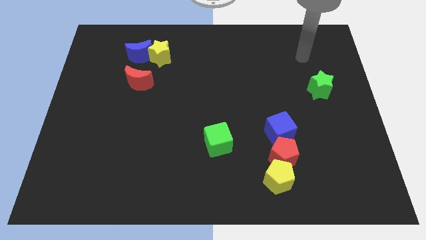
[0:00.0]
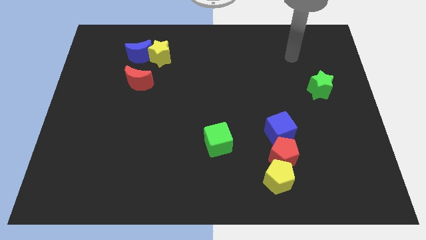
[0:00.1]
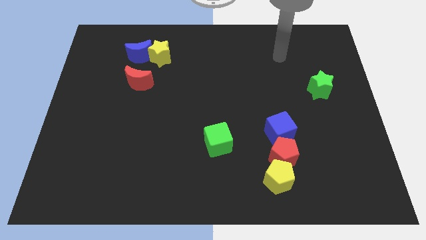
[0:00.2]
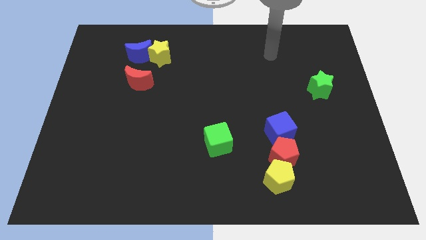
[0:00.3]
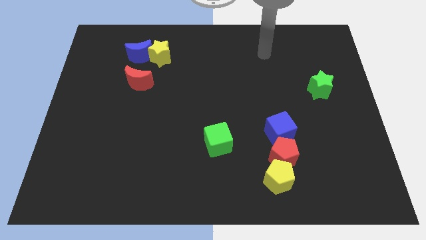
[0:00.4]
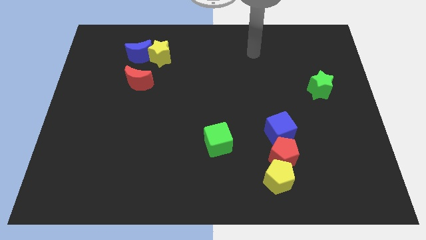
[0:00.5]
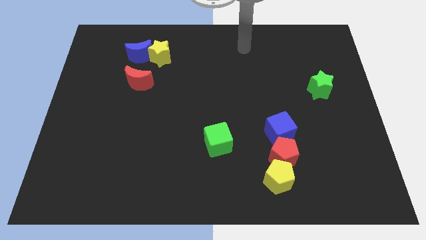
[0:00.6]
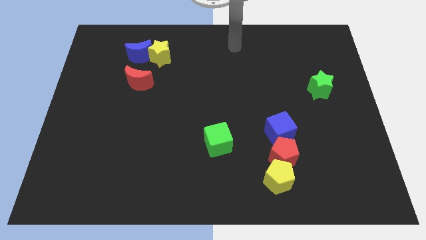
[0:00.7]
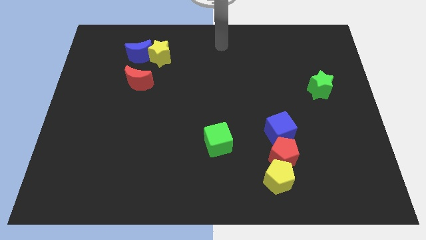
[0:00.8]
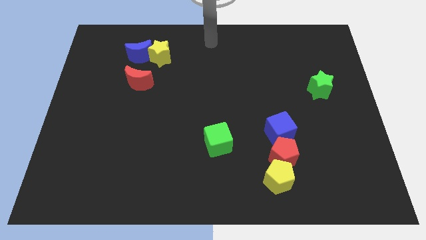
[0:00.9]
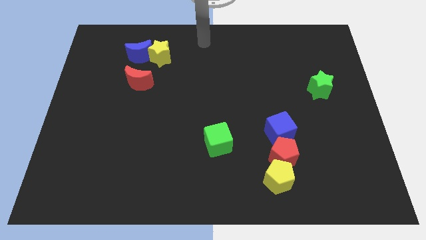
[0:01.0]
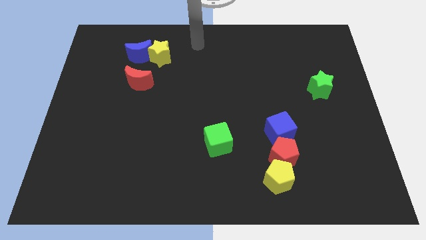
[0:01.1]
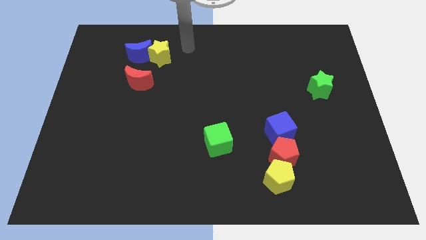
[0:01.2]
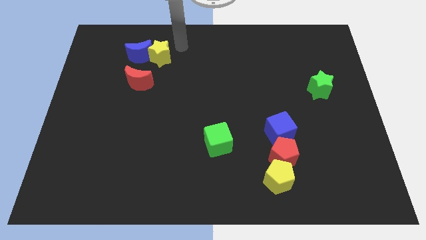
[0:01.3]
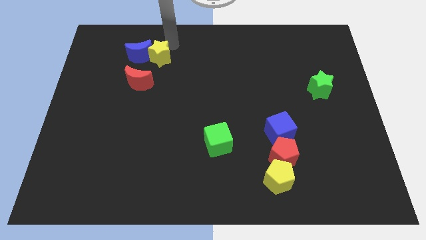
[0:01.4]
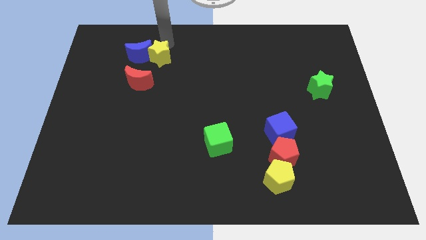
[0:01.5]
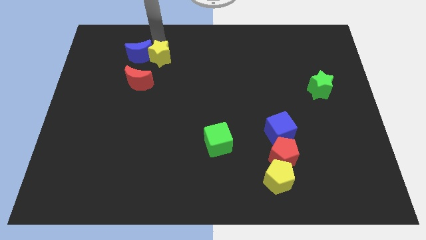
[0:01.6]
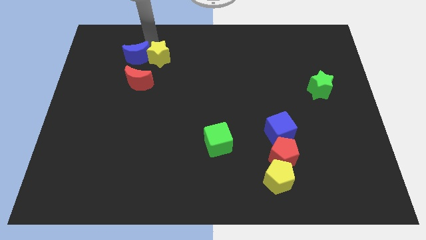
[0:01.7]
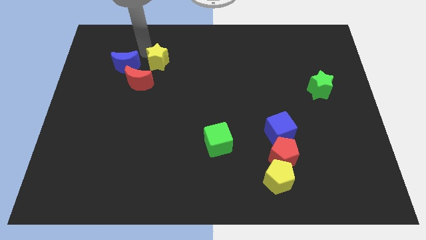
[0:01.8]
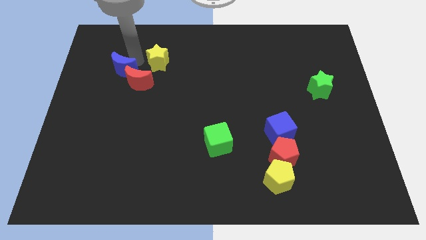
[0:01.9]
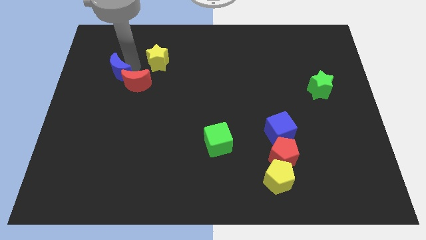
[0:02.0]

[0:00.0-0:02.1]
move the yellow star away from the blue moon

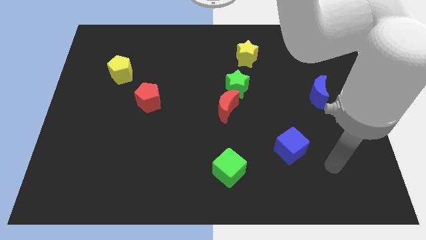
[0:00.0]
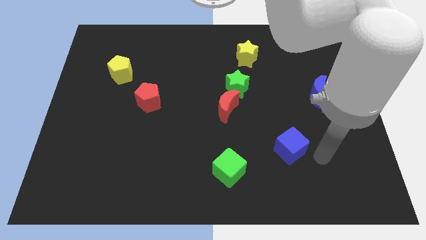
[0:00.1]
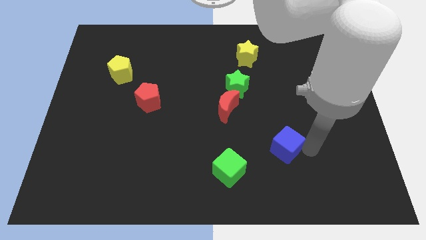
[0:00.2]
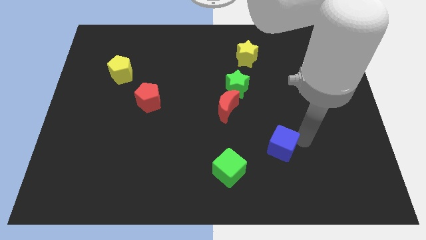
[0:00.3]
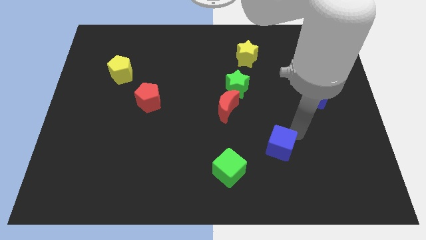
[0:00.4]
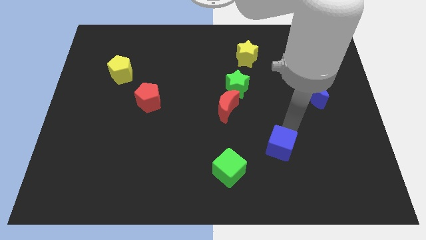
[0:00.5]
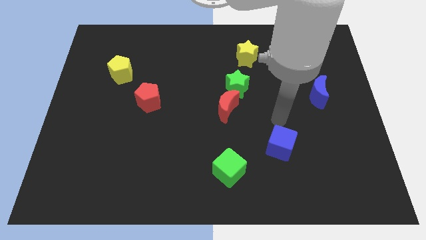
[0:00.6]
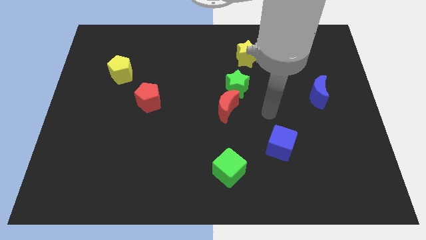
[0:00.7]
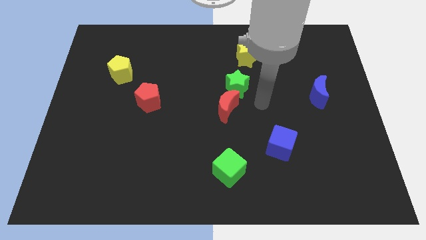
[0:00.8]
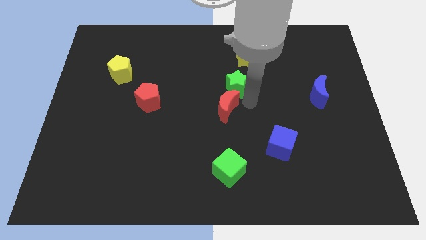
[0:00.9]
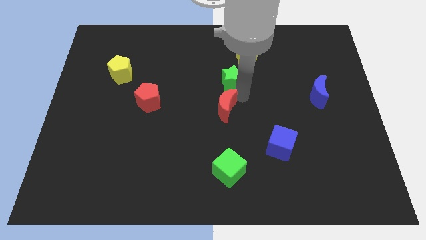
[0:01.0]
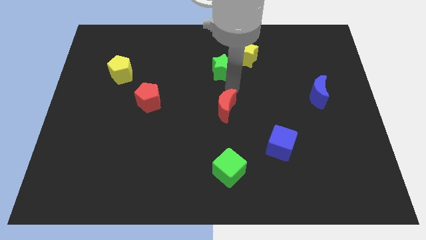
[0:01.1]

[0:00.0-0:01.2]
pull the red moon apart from the green star

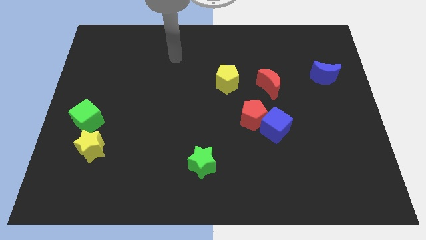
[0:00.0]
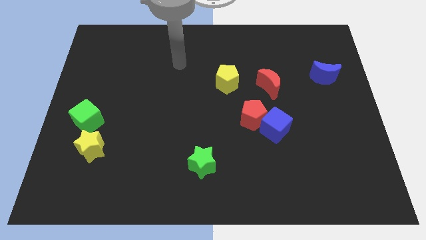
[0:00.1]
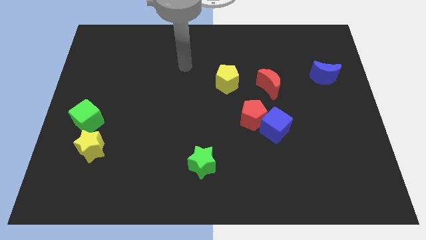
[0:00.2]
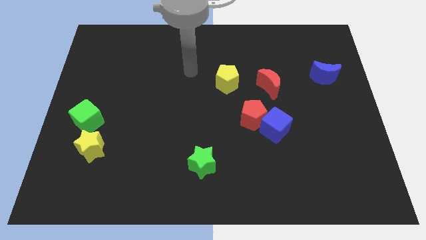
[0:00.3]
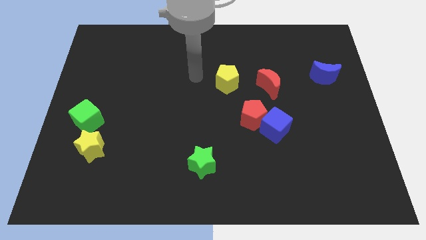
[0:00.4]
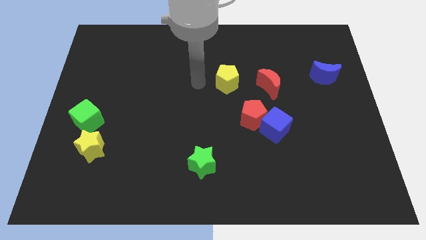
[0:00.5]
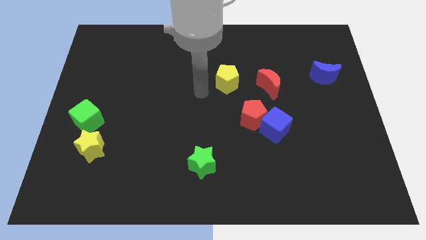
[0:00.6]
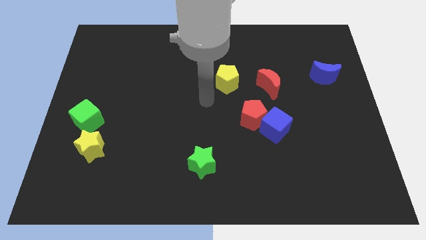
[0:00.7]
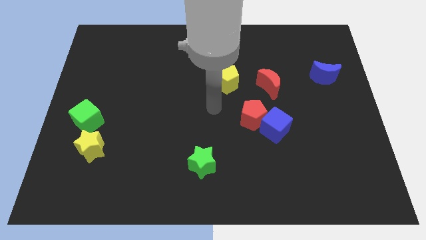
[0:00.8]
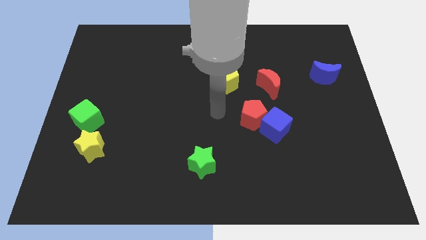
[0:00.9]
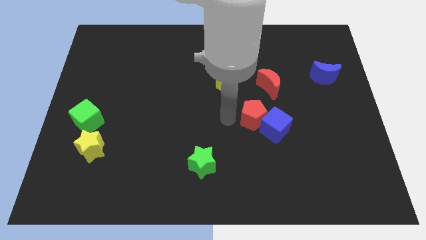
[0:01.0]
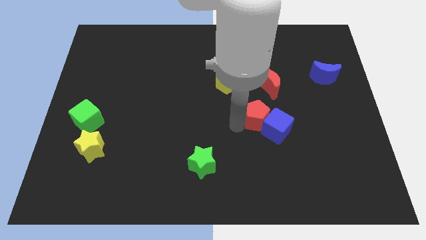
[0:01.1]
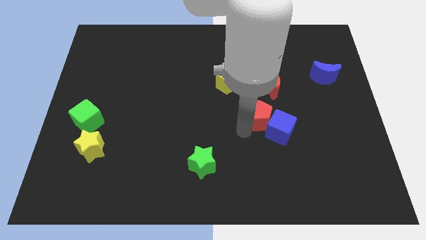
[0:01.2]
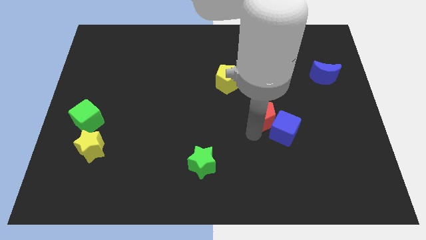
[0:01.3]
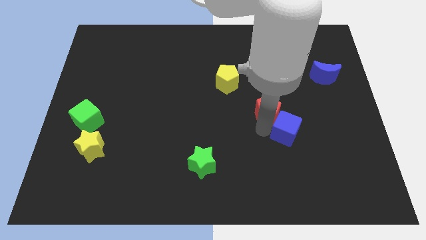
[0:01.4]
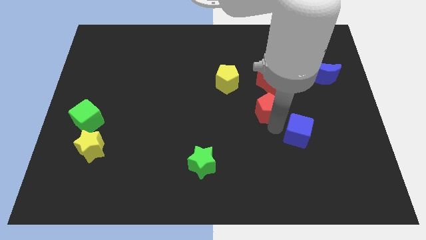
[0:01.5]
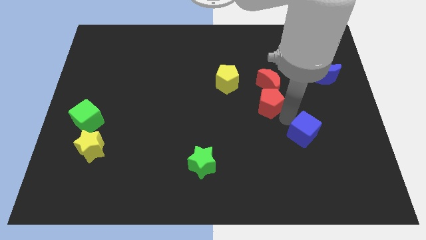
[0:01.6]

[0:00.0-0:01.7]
pull the red pentagon apart from the blue cube

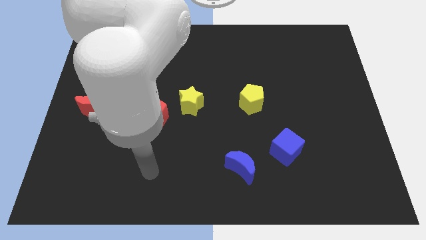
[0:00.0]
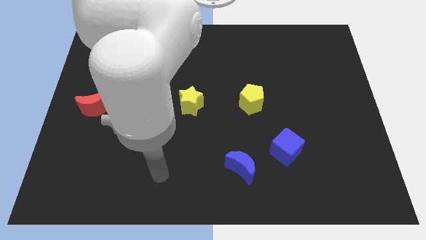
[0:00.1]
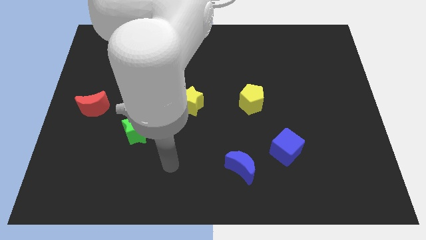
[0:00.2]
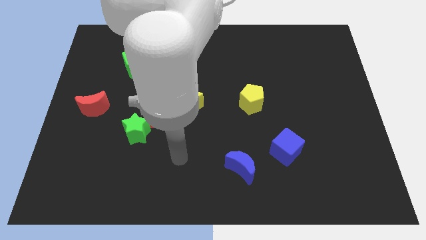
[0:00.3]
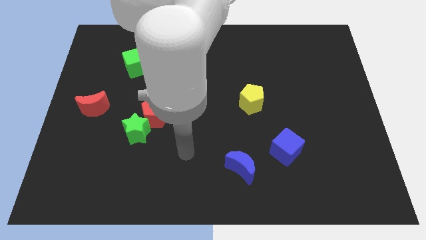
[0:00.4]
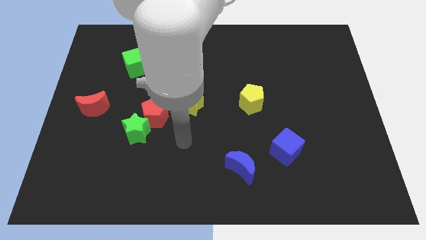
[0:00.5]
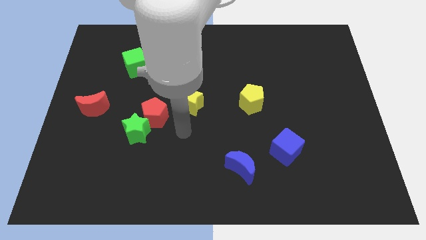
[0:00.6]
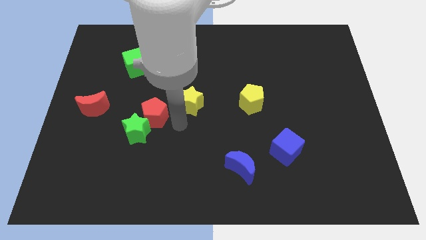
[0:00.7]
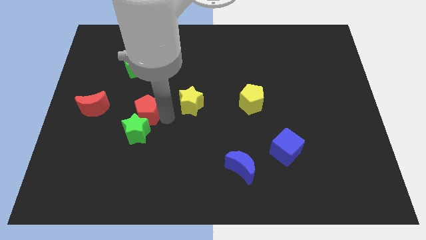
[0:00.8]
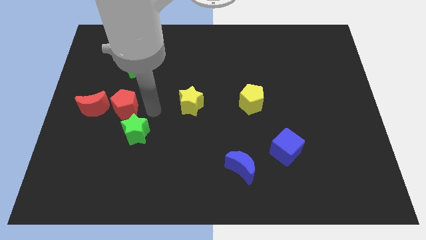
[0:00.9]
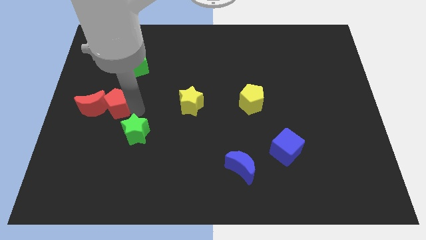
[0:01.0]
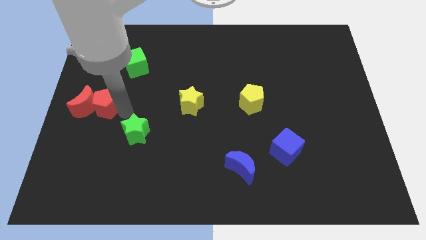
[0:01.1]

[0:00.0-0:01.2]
move the green star away from the red pentagon

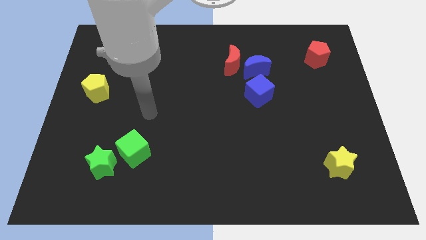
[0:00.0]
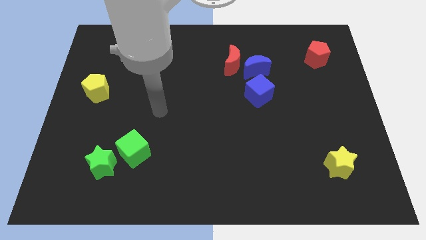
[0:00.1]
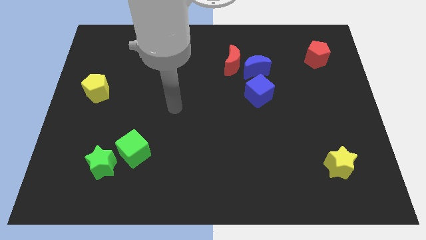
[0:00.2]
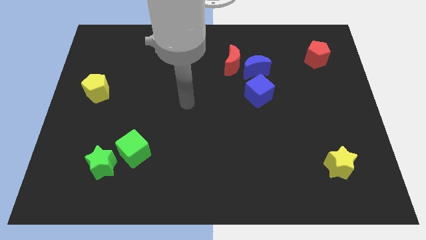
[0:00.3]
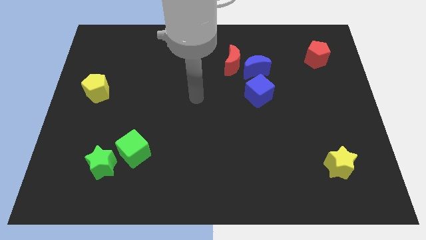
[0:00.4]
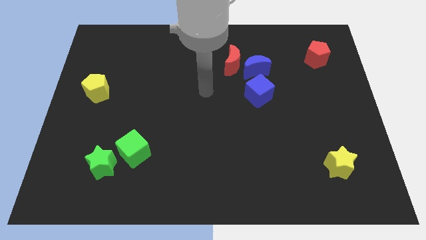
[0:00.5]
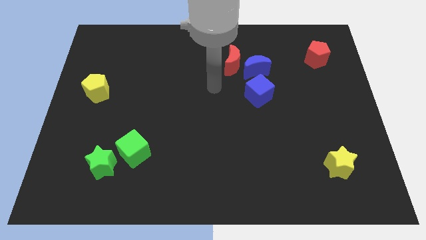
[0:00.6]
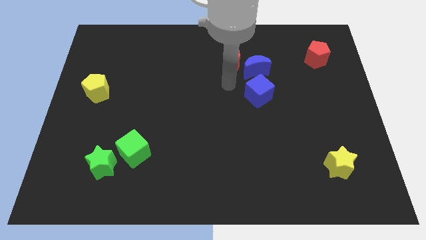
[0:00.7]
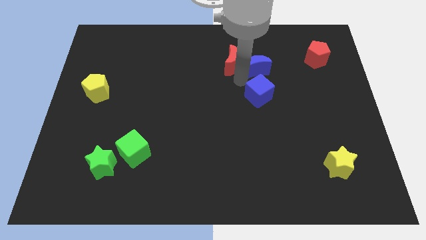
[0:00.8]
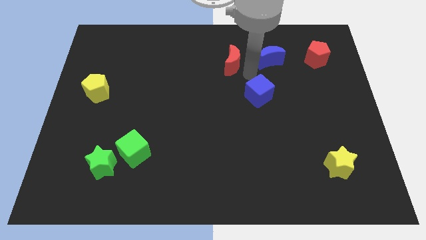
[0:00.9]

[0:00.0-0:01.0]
move the red moon away from the blue moon

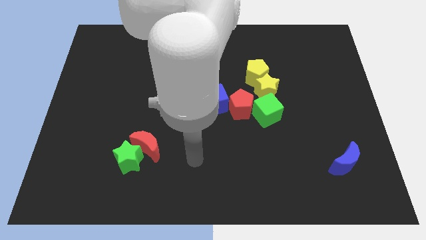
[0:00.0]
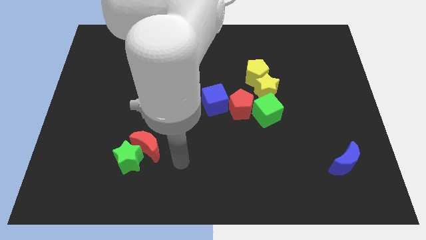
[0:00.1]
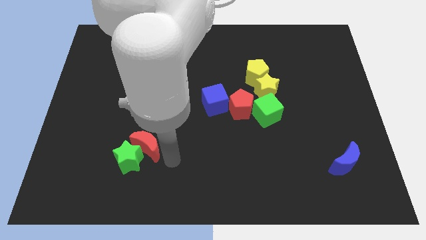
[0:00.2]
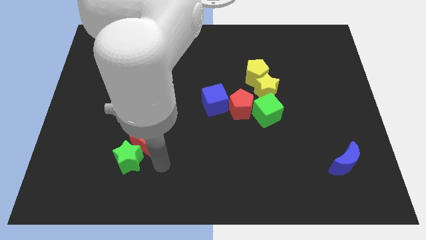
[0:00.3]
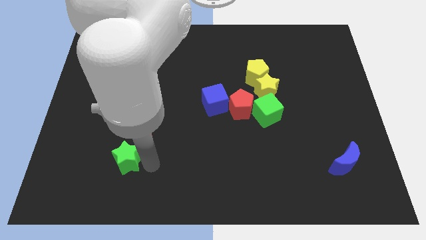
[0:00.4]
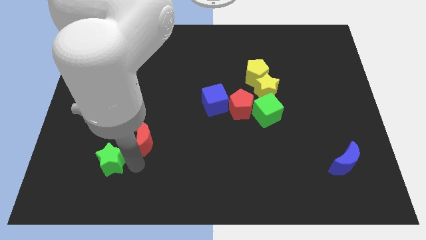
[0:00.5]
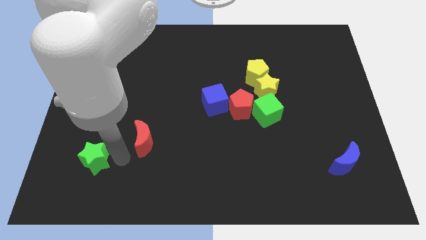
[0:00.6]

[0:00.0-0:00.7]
move the red moon away from the green star

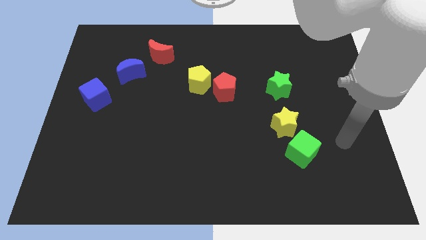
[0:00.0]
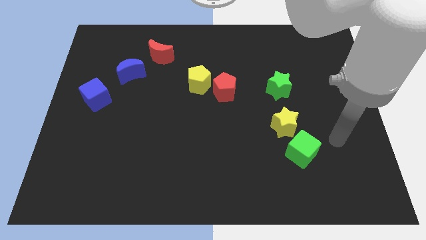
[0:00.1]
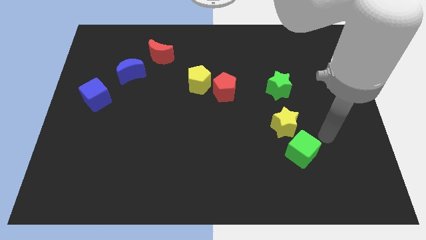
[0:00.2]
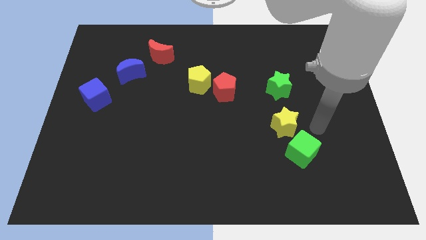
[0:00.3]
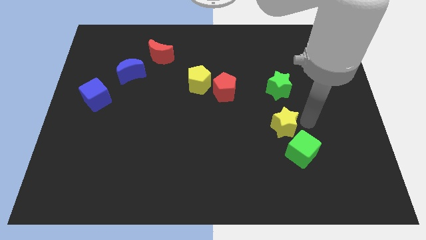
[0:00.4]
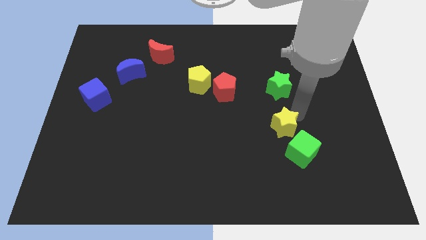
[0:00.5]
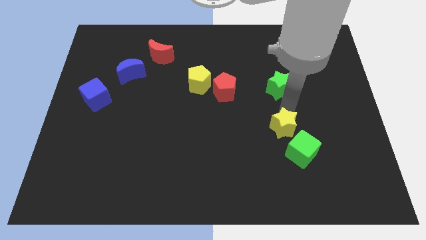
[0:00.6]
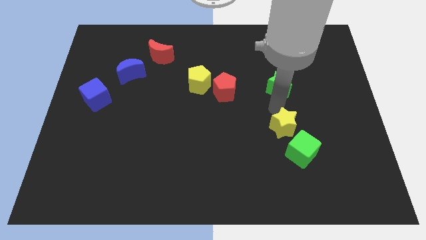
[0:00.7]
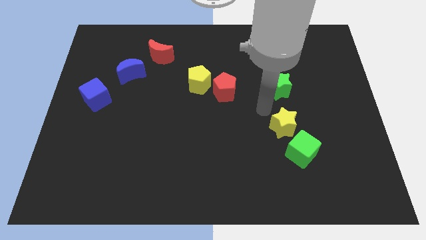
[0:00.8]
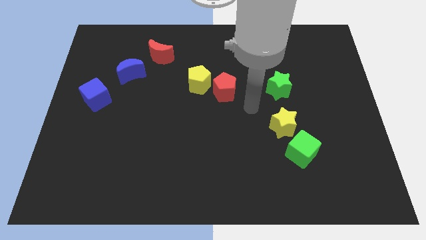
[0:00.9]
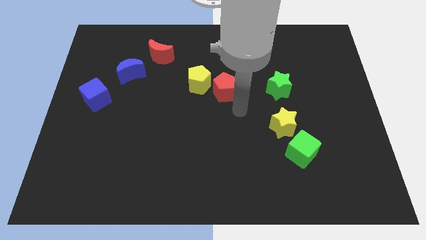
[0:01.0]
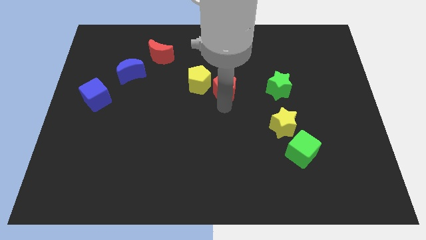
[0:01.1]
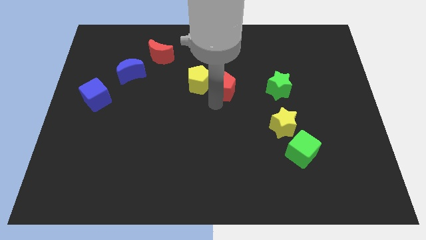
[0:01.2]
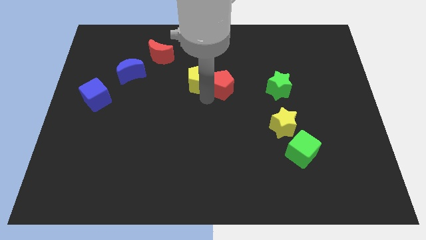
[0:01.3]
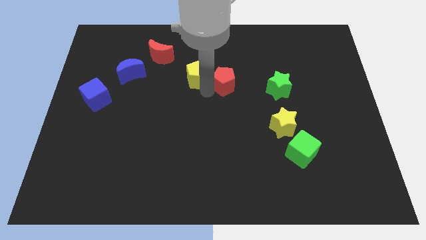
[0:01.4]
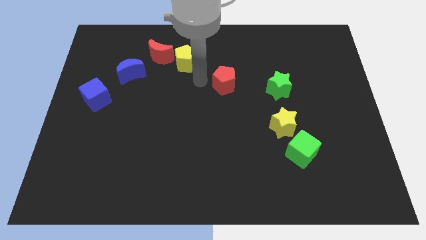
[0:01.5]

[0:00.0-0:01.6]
move the red pentagon away from the yellow pentagon

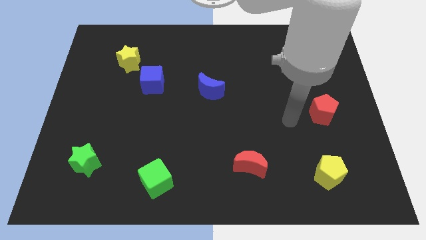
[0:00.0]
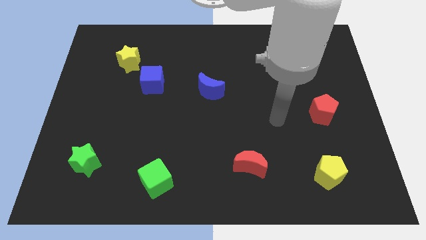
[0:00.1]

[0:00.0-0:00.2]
separate the blue cube from the yellow star
